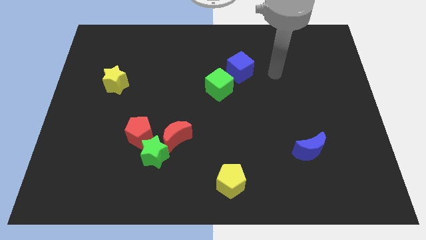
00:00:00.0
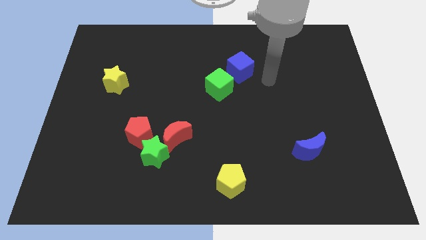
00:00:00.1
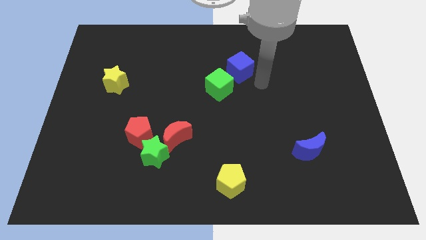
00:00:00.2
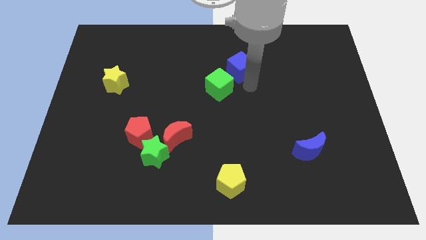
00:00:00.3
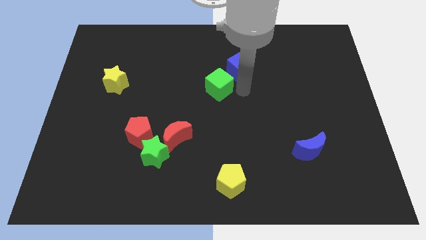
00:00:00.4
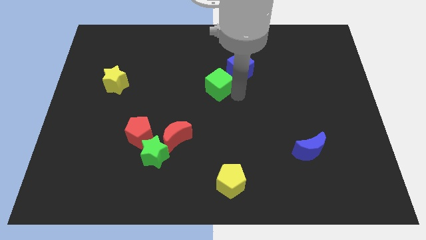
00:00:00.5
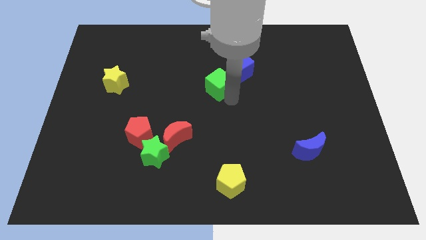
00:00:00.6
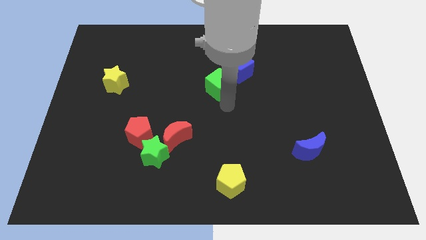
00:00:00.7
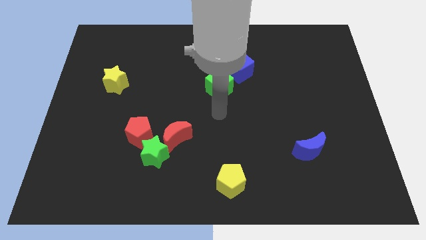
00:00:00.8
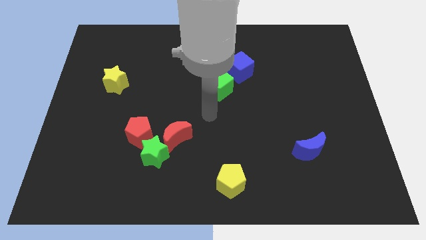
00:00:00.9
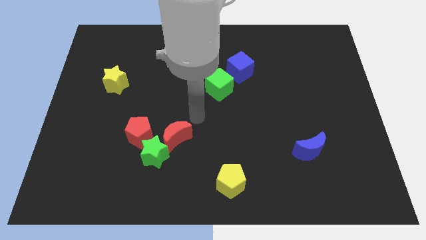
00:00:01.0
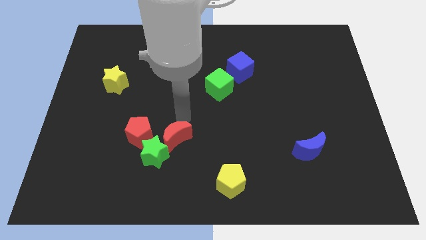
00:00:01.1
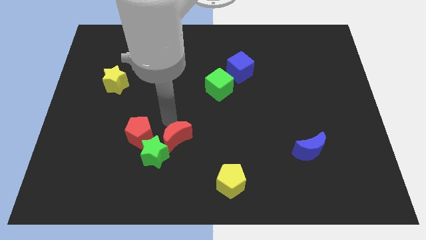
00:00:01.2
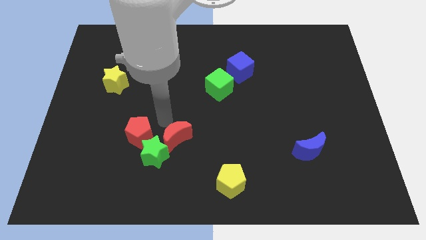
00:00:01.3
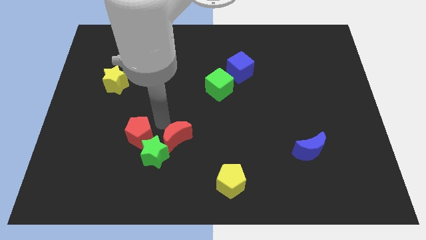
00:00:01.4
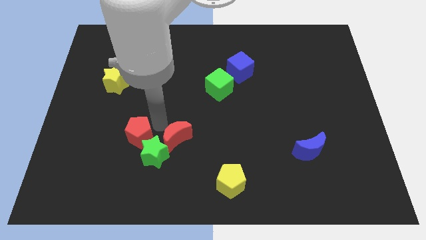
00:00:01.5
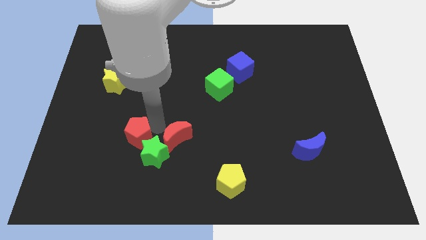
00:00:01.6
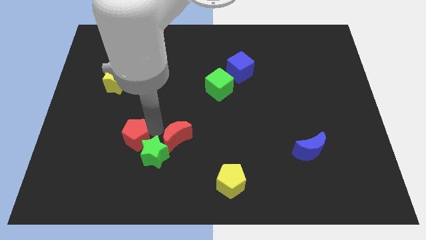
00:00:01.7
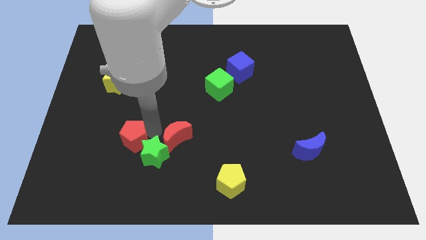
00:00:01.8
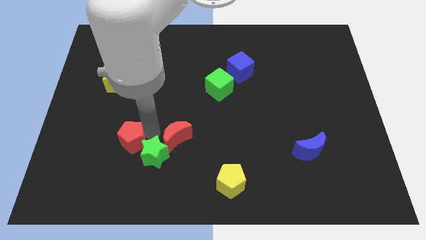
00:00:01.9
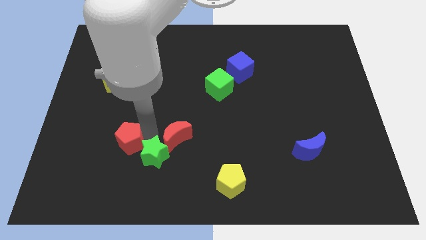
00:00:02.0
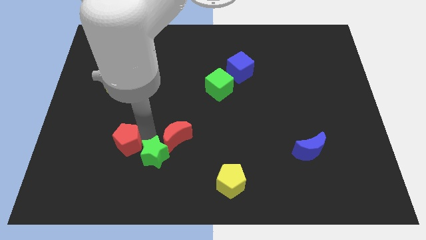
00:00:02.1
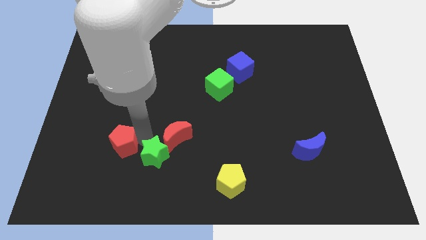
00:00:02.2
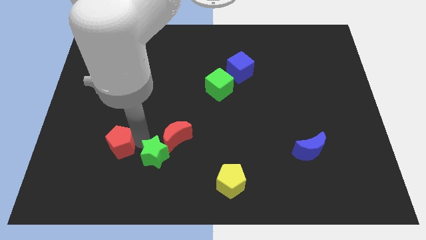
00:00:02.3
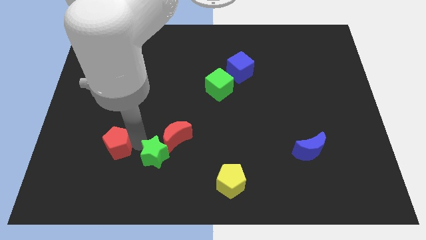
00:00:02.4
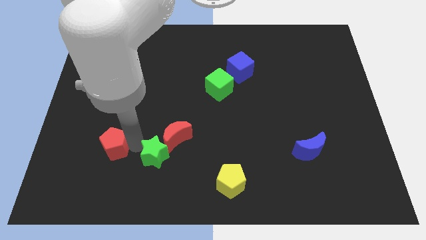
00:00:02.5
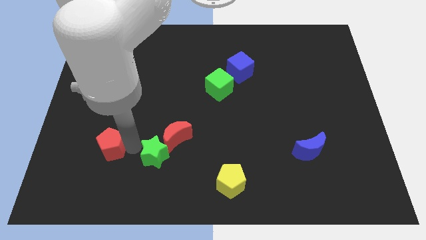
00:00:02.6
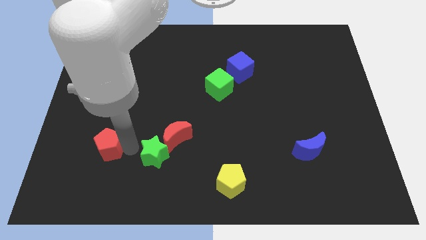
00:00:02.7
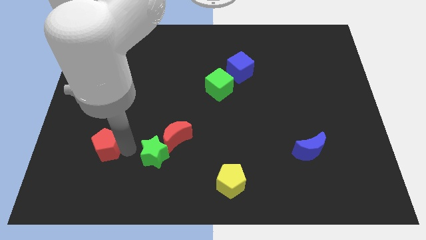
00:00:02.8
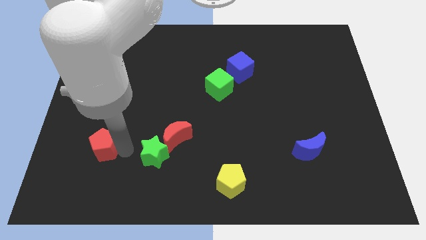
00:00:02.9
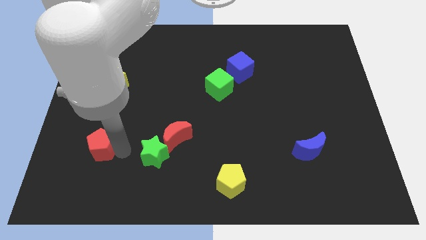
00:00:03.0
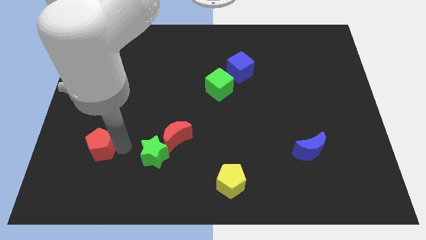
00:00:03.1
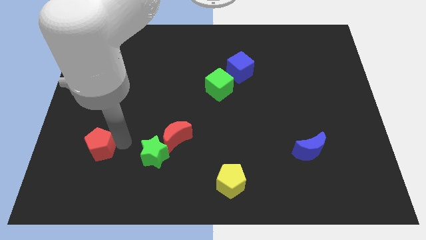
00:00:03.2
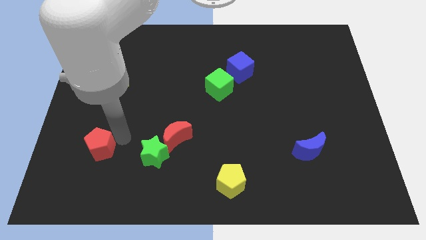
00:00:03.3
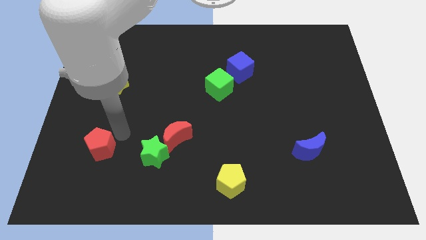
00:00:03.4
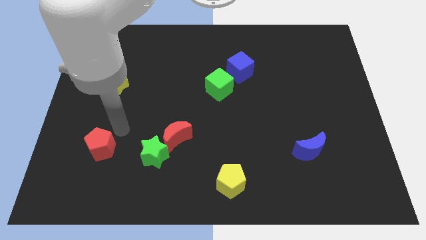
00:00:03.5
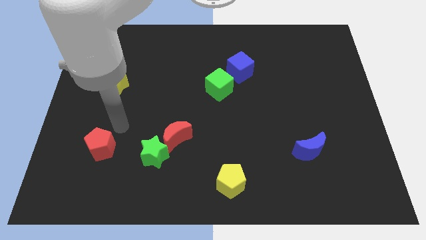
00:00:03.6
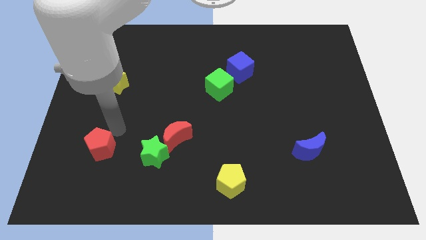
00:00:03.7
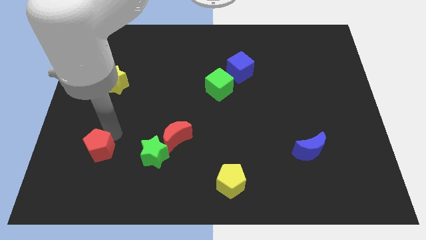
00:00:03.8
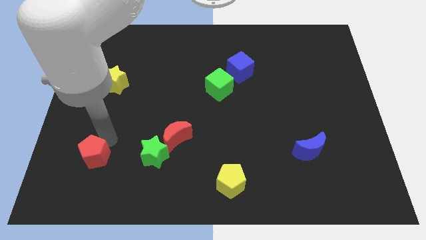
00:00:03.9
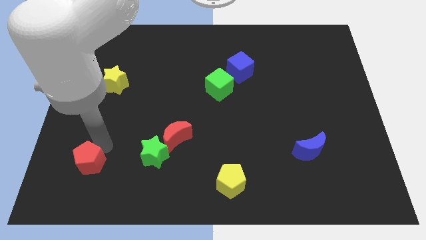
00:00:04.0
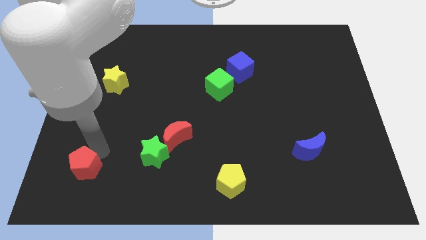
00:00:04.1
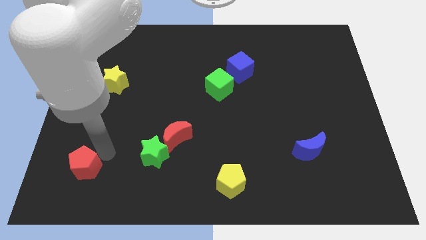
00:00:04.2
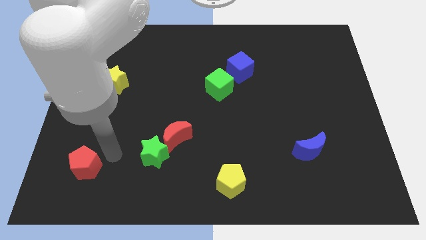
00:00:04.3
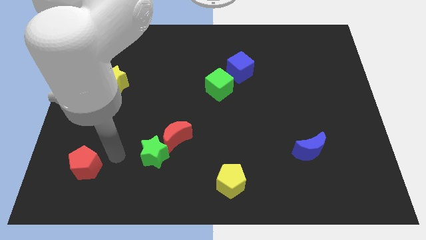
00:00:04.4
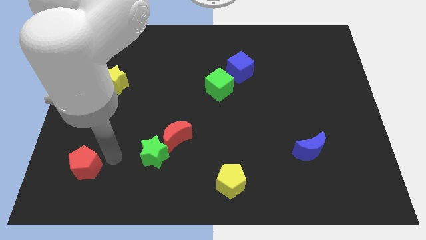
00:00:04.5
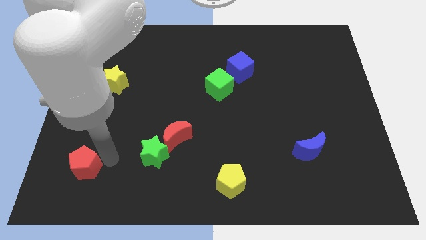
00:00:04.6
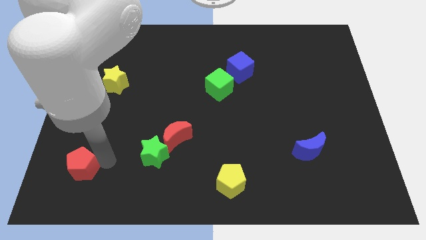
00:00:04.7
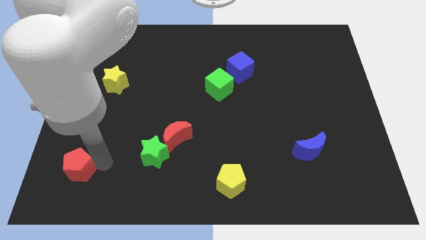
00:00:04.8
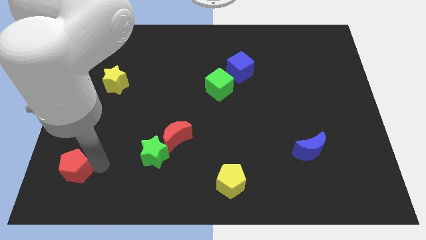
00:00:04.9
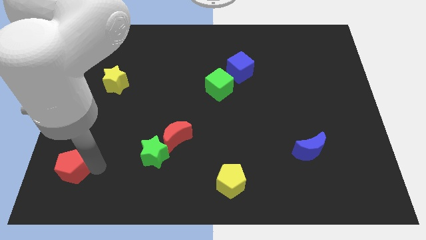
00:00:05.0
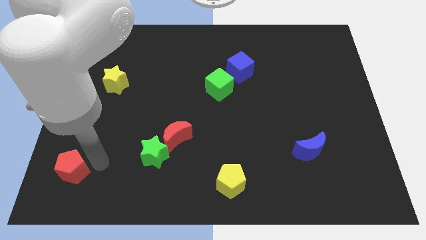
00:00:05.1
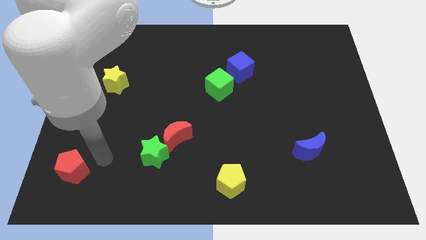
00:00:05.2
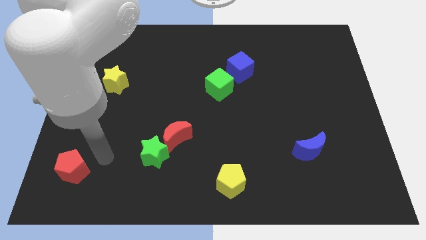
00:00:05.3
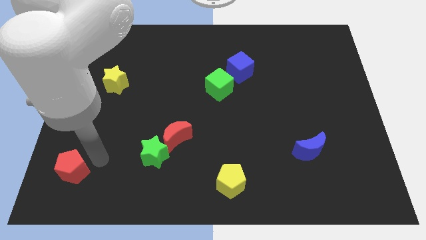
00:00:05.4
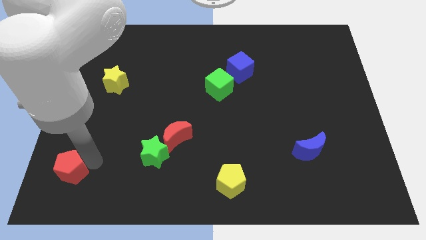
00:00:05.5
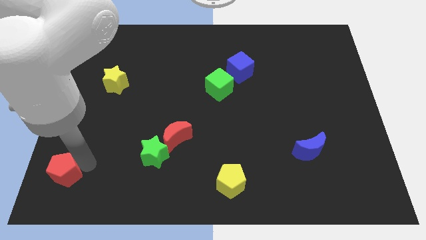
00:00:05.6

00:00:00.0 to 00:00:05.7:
move the red pentagon to the bottom left of the board
